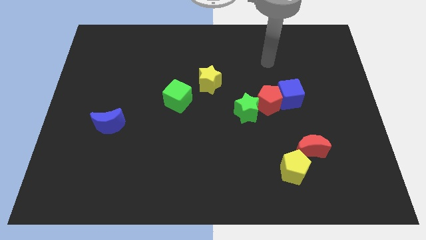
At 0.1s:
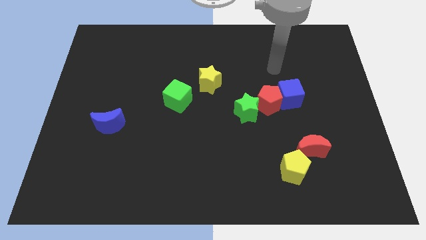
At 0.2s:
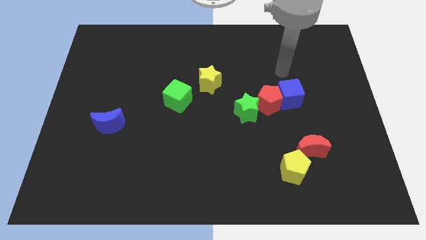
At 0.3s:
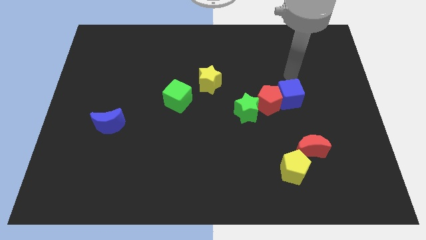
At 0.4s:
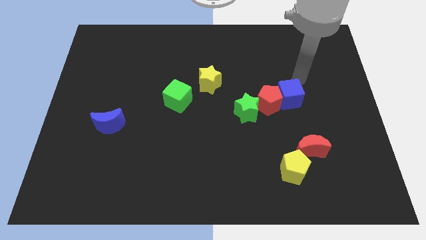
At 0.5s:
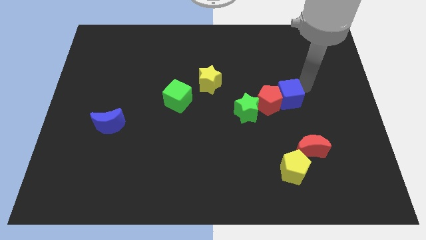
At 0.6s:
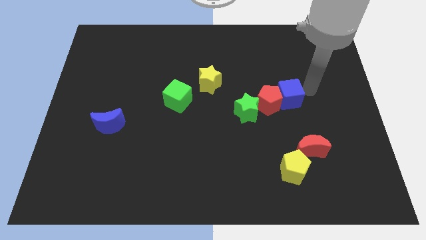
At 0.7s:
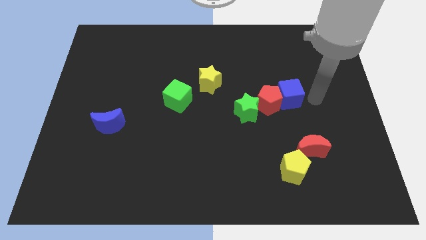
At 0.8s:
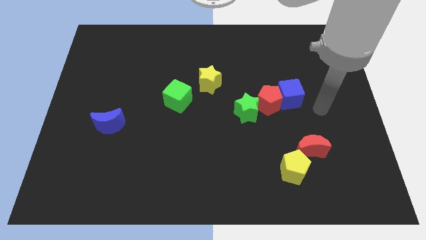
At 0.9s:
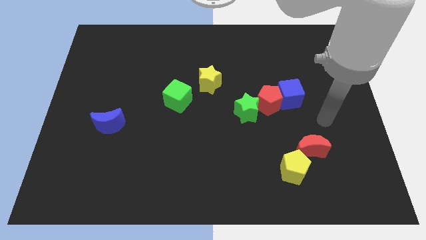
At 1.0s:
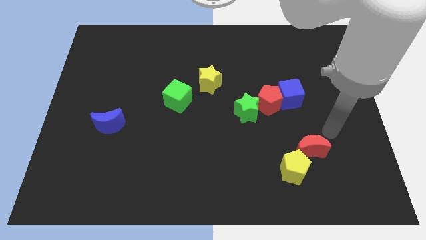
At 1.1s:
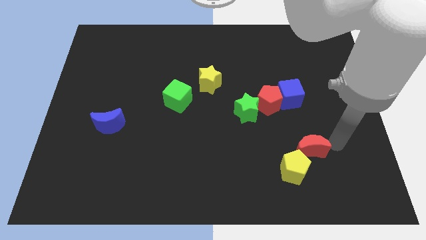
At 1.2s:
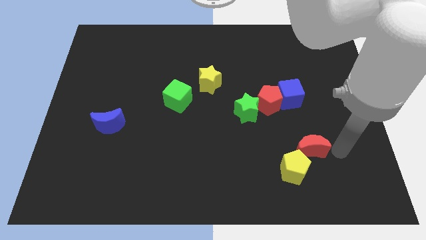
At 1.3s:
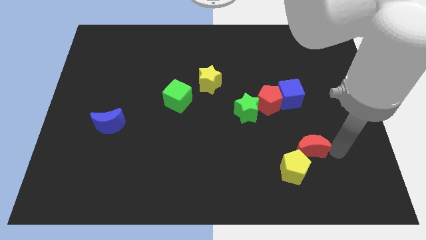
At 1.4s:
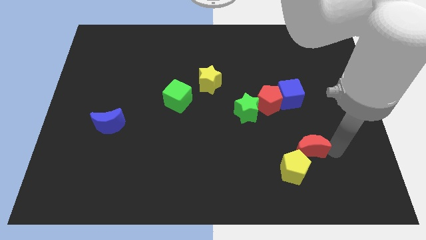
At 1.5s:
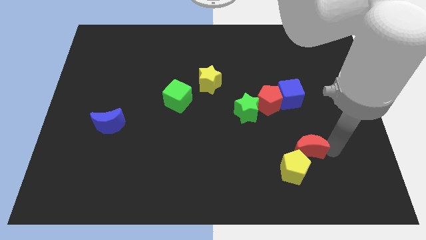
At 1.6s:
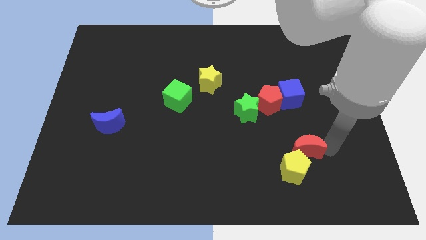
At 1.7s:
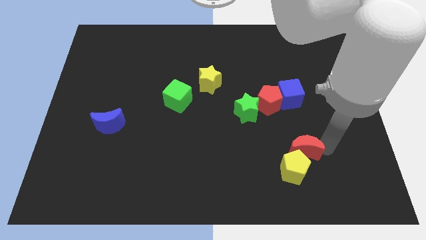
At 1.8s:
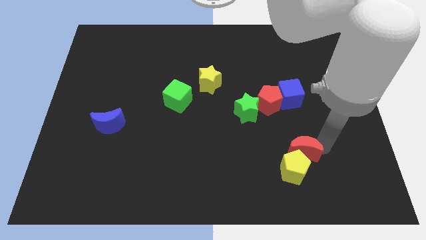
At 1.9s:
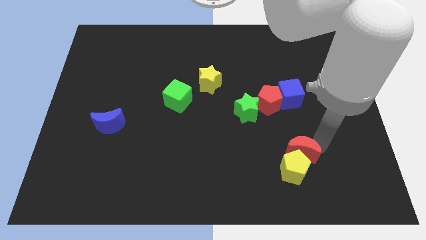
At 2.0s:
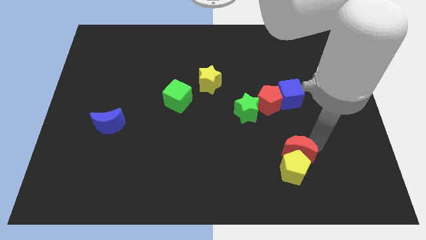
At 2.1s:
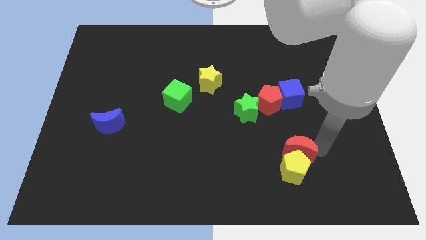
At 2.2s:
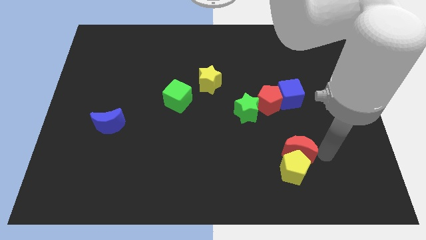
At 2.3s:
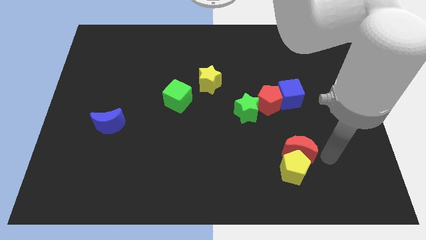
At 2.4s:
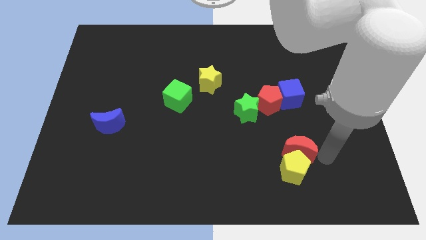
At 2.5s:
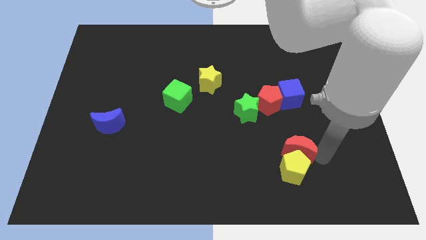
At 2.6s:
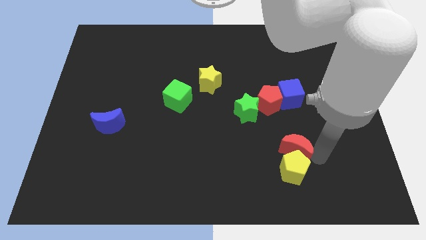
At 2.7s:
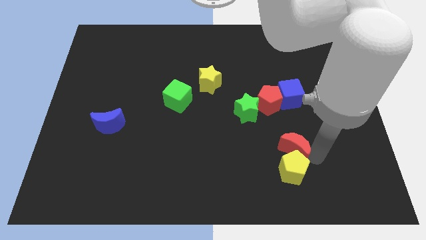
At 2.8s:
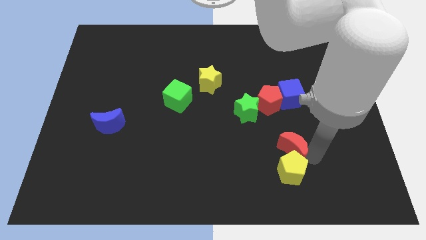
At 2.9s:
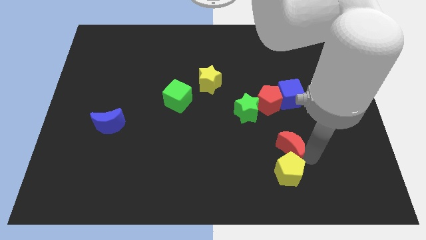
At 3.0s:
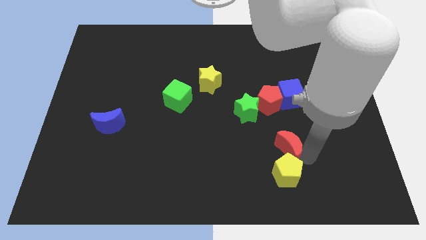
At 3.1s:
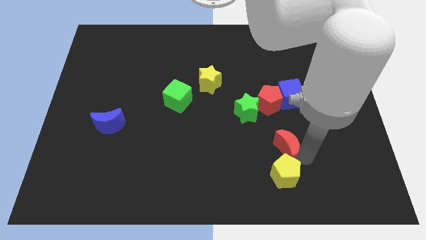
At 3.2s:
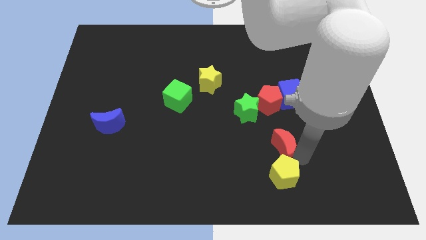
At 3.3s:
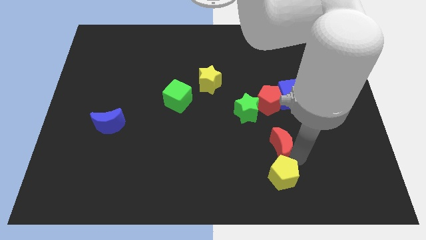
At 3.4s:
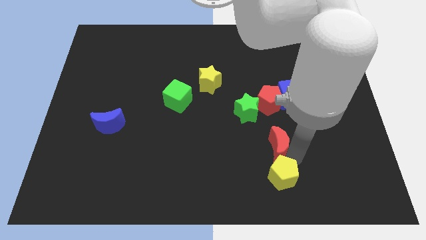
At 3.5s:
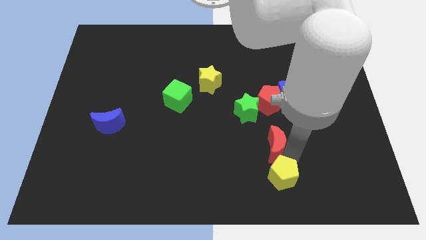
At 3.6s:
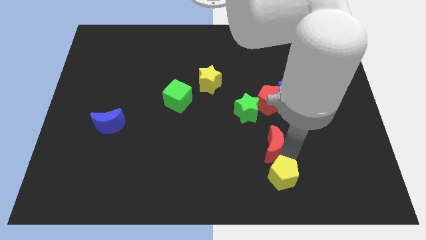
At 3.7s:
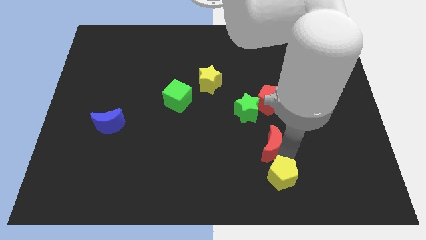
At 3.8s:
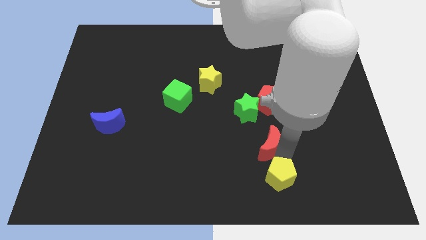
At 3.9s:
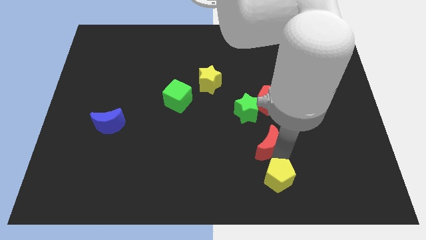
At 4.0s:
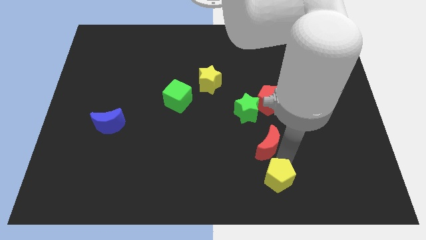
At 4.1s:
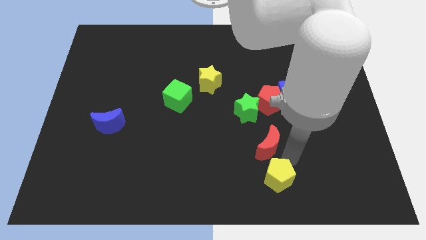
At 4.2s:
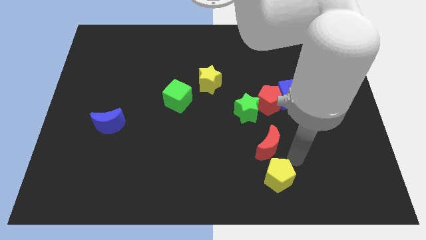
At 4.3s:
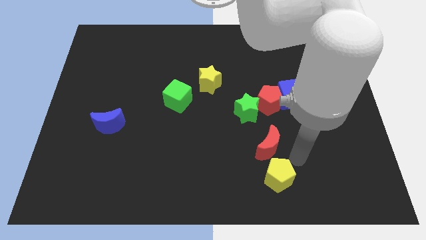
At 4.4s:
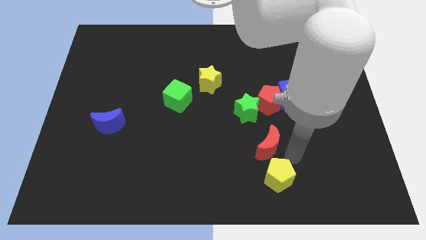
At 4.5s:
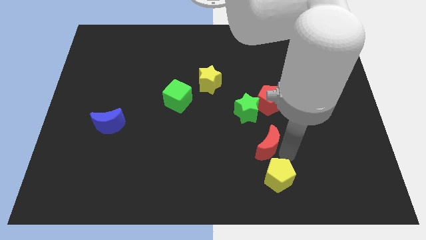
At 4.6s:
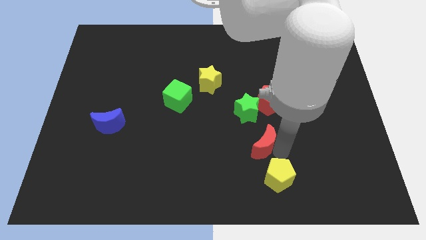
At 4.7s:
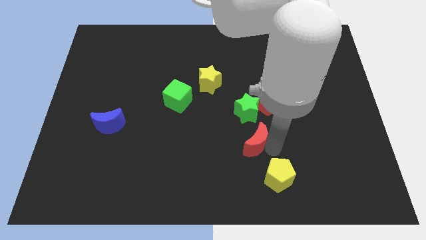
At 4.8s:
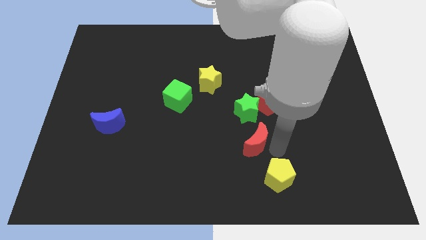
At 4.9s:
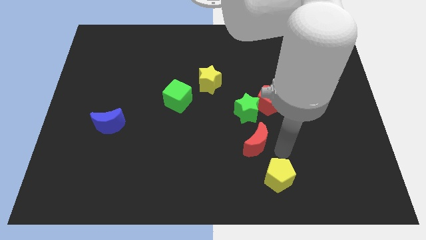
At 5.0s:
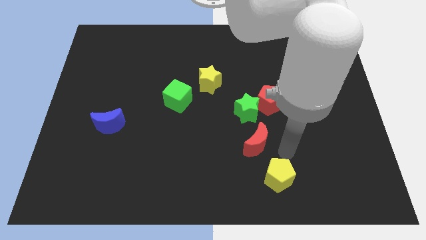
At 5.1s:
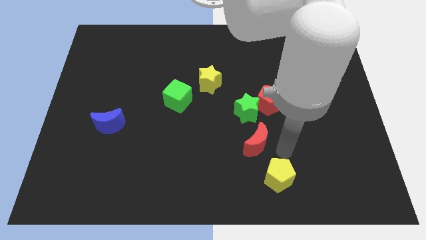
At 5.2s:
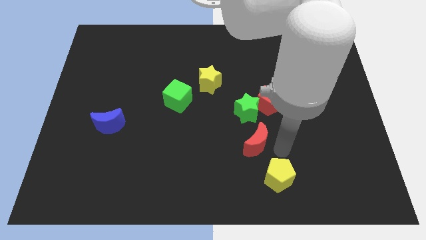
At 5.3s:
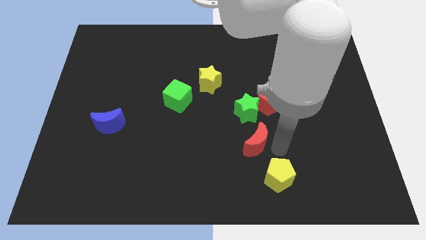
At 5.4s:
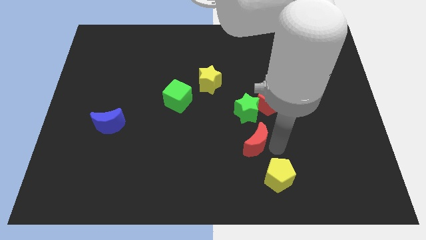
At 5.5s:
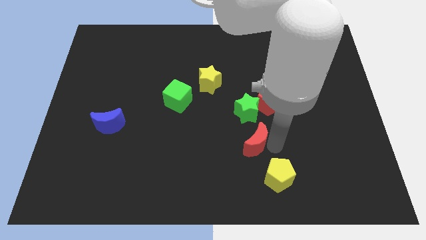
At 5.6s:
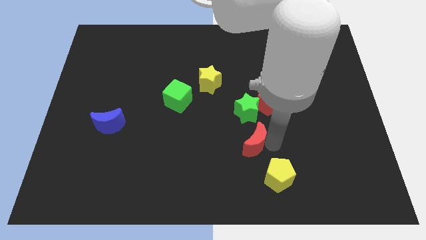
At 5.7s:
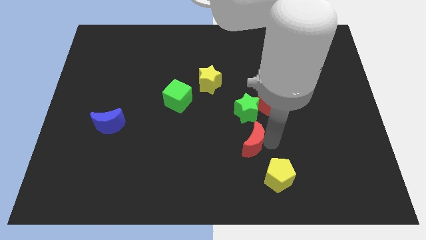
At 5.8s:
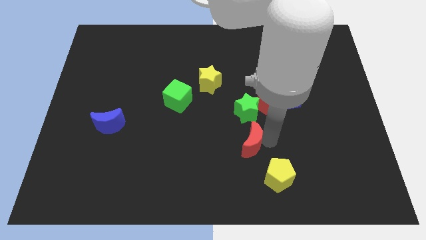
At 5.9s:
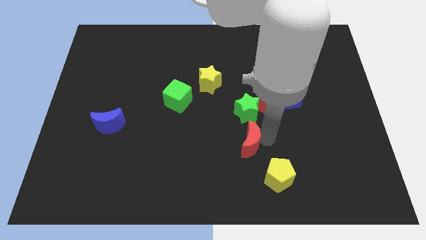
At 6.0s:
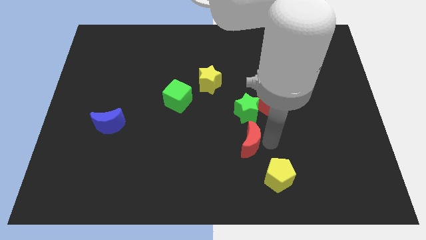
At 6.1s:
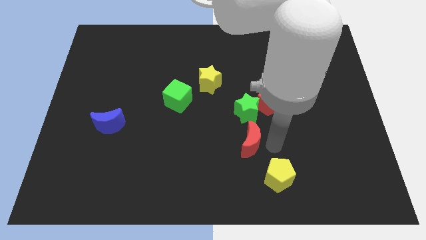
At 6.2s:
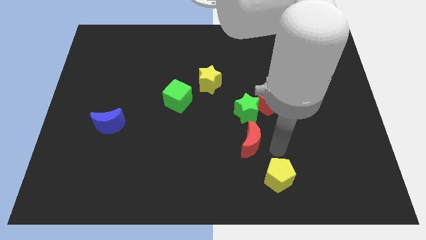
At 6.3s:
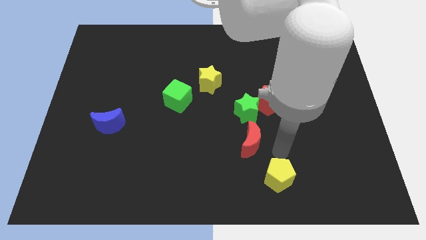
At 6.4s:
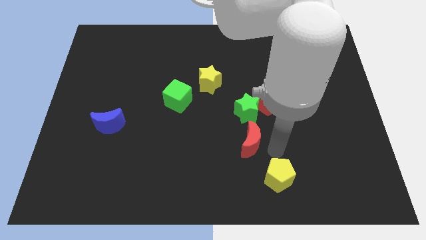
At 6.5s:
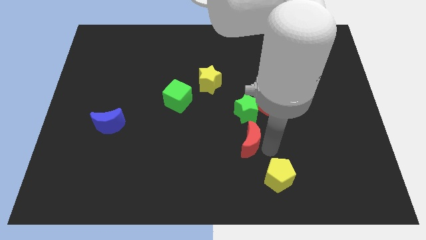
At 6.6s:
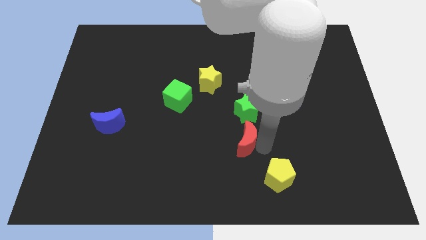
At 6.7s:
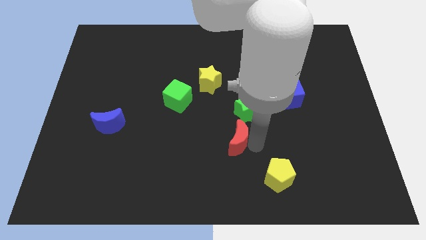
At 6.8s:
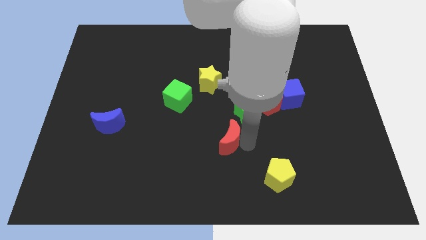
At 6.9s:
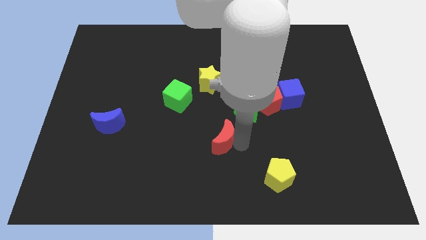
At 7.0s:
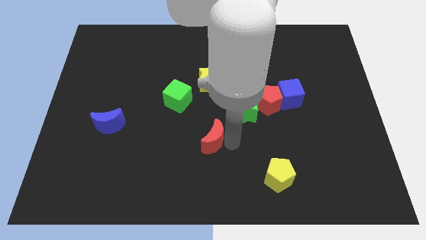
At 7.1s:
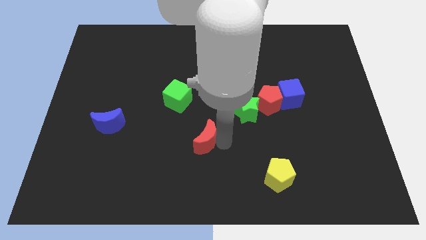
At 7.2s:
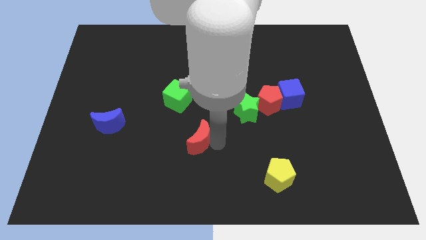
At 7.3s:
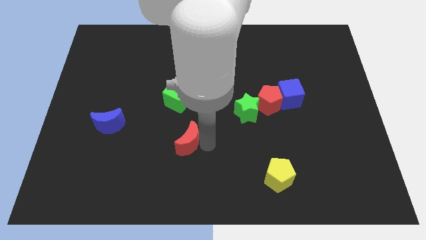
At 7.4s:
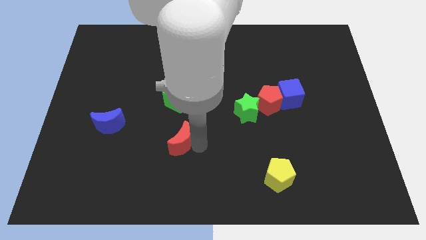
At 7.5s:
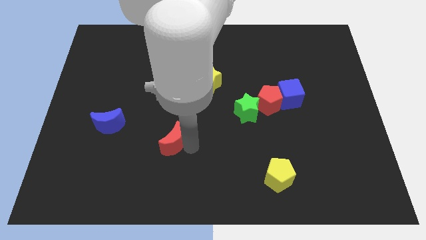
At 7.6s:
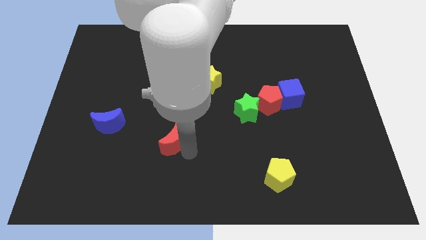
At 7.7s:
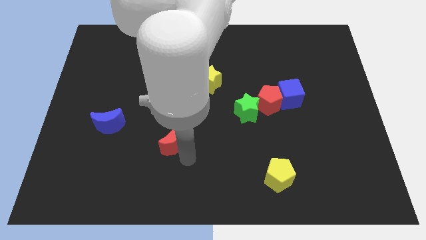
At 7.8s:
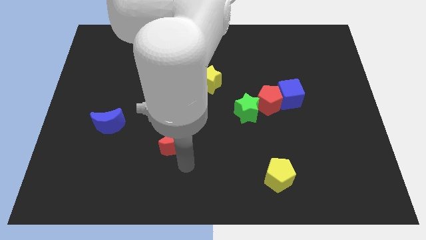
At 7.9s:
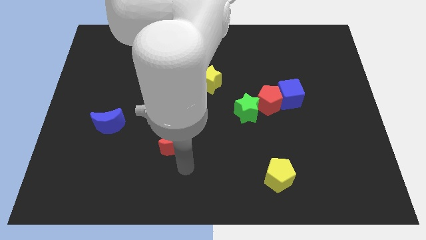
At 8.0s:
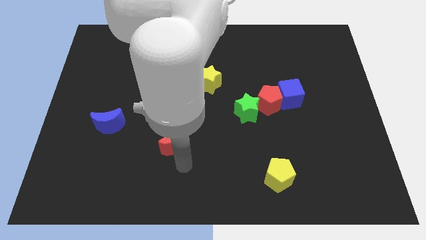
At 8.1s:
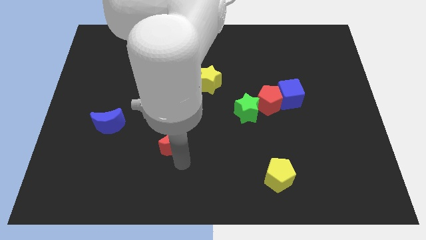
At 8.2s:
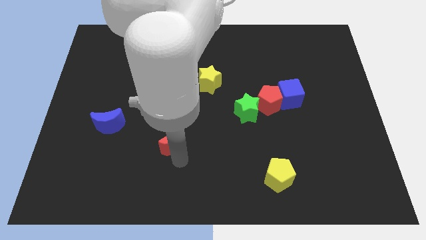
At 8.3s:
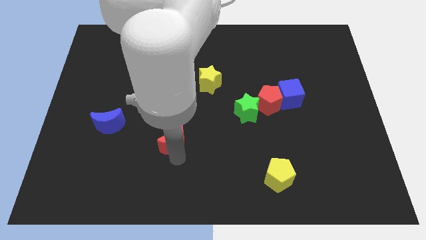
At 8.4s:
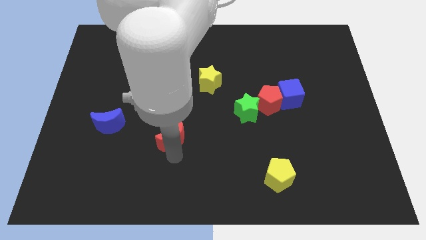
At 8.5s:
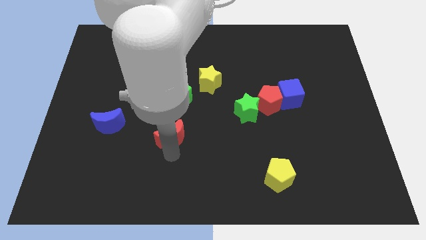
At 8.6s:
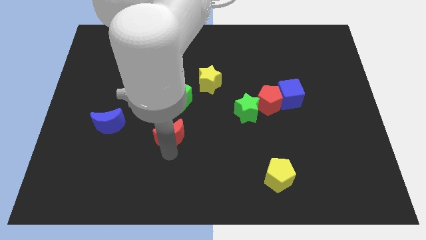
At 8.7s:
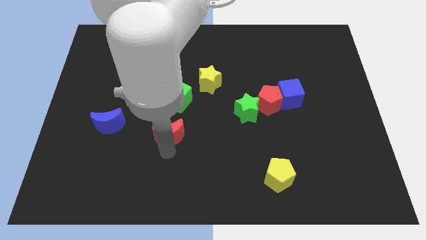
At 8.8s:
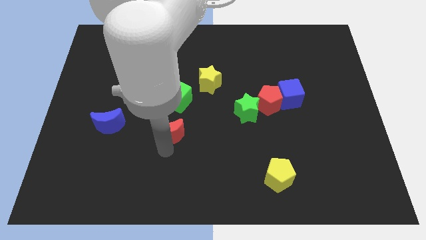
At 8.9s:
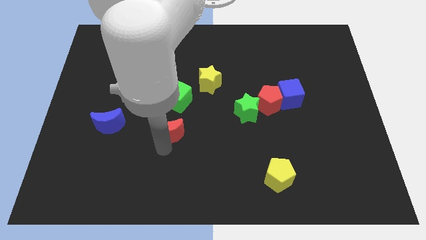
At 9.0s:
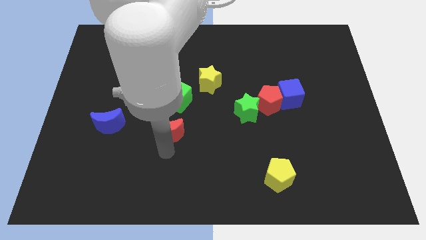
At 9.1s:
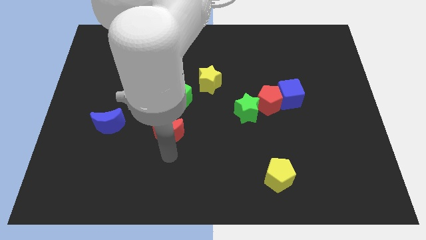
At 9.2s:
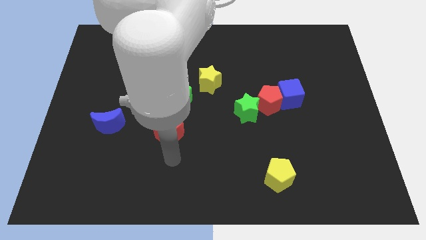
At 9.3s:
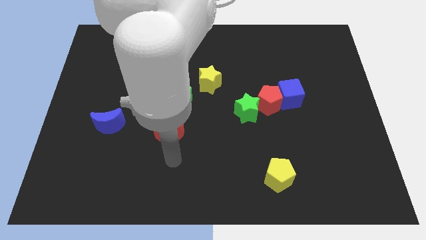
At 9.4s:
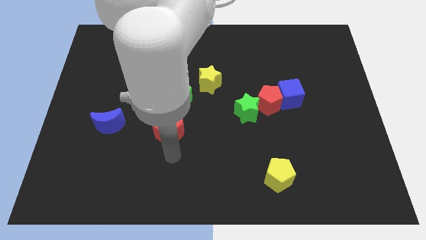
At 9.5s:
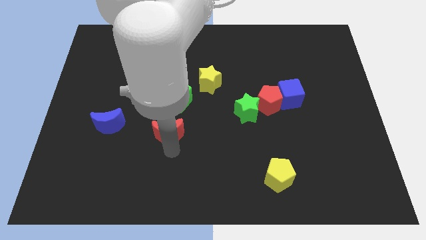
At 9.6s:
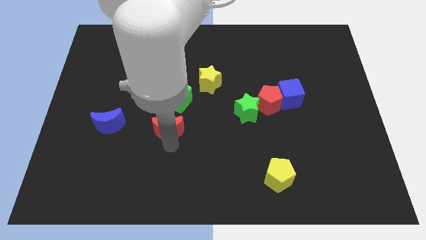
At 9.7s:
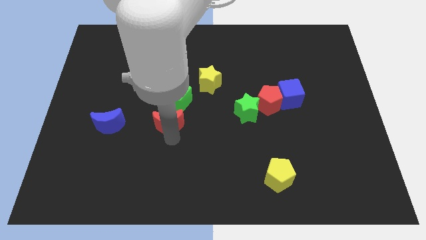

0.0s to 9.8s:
slide the red moon to the bottom left side of the green cube
